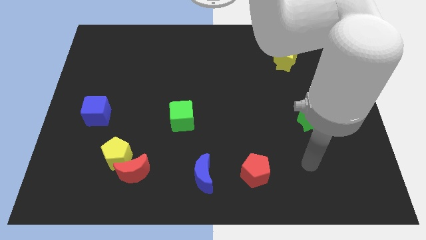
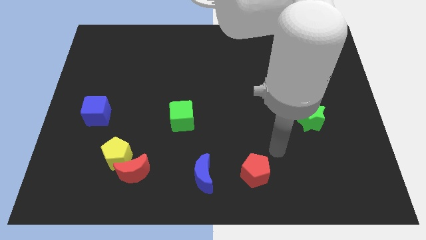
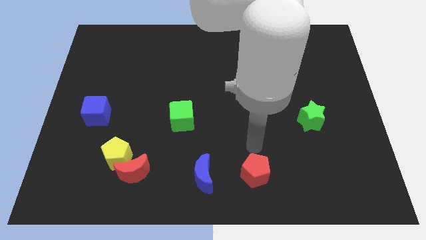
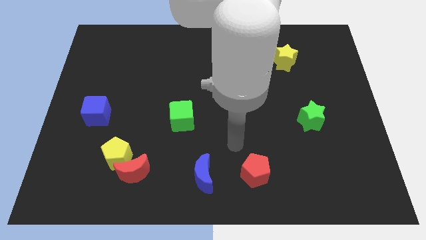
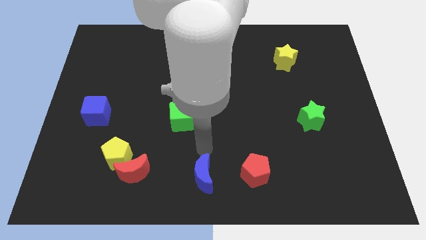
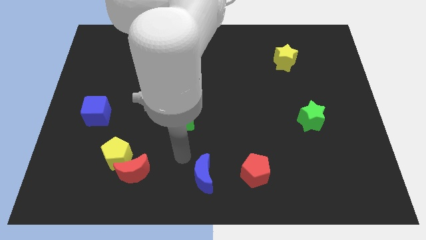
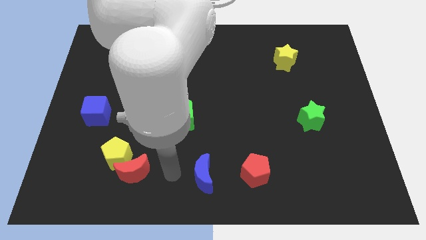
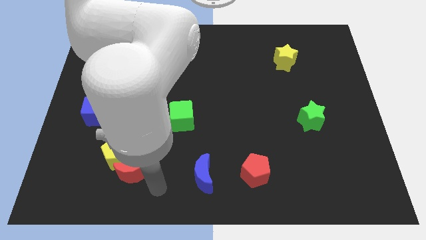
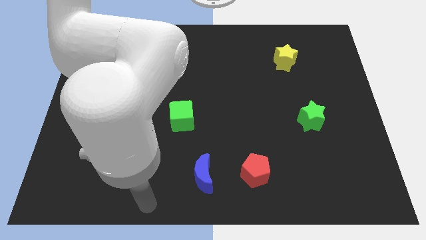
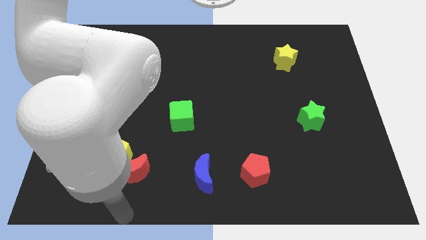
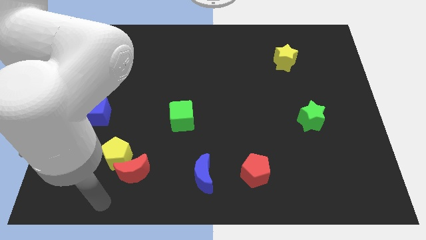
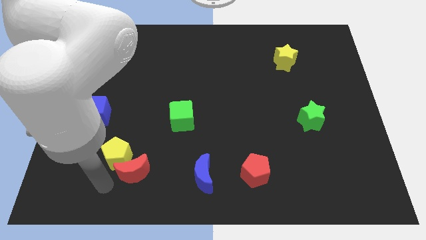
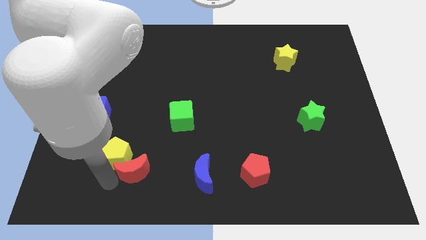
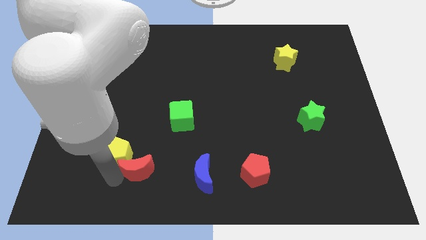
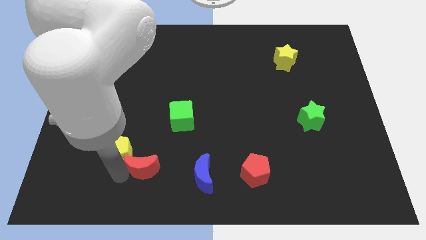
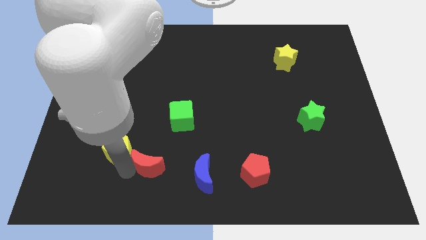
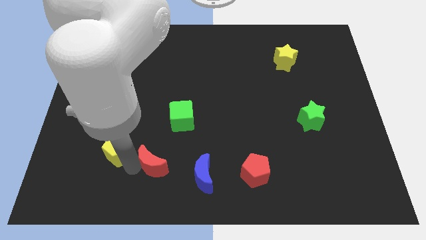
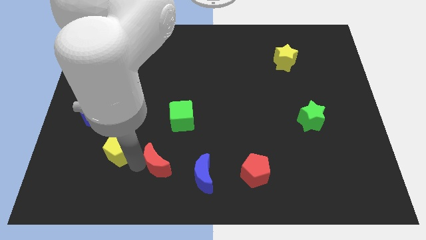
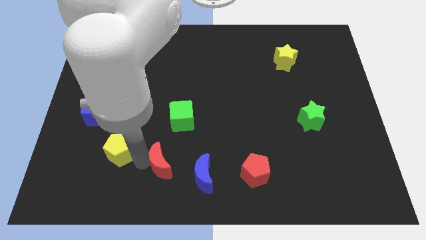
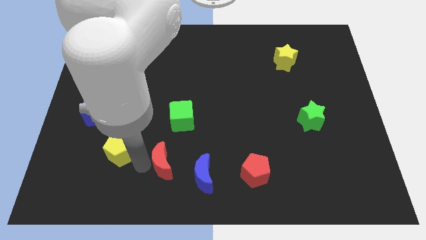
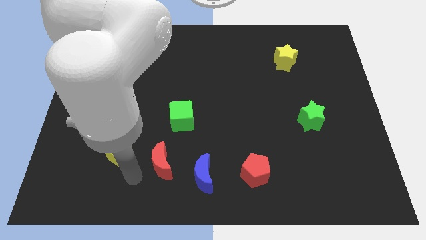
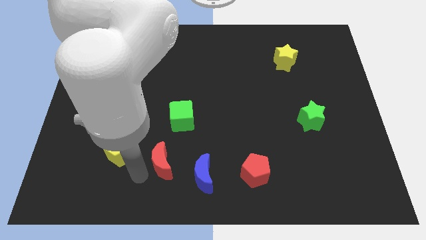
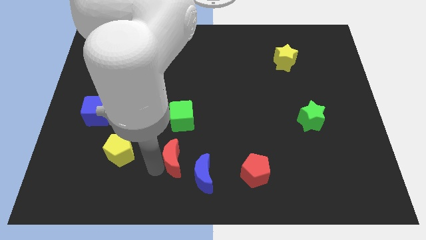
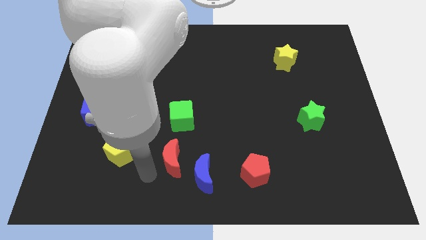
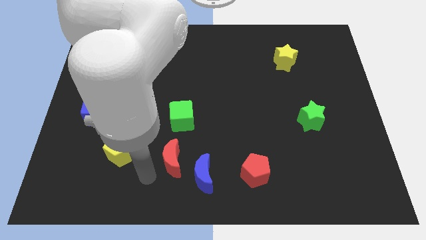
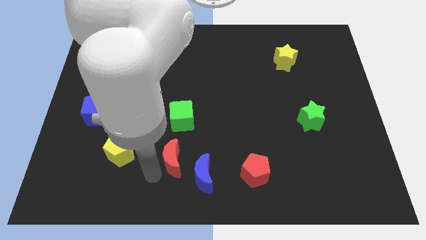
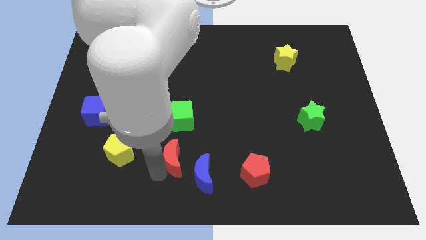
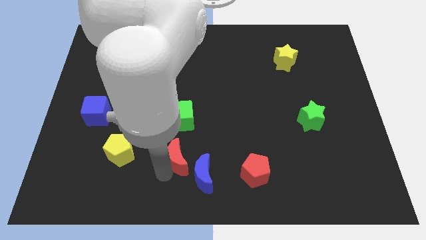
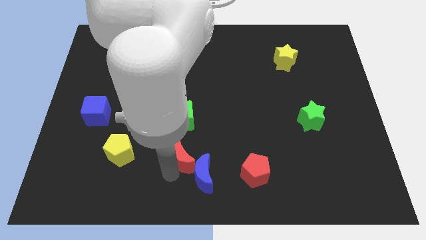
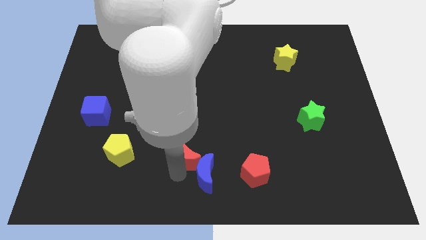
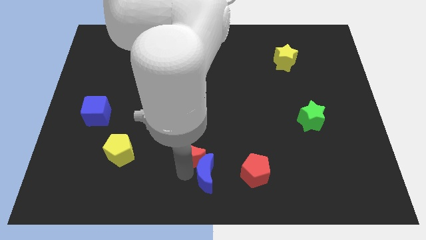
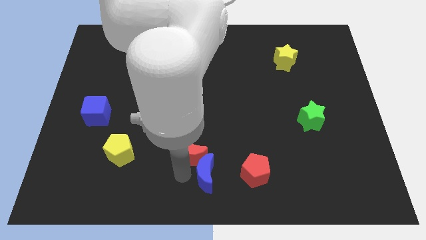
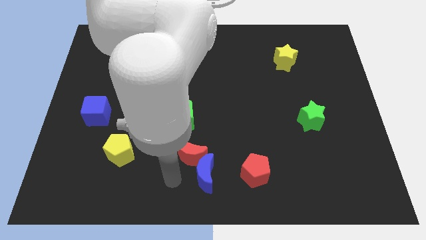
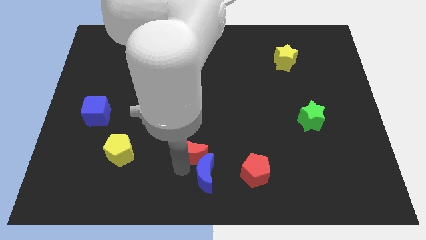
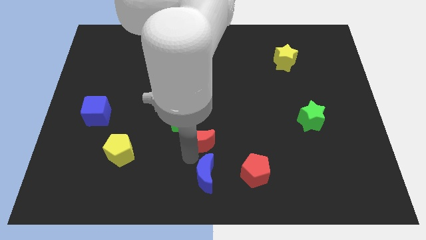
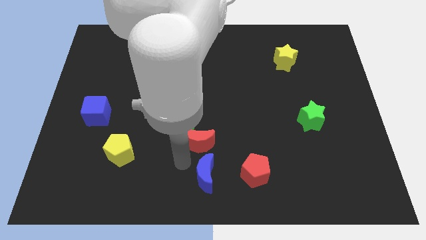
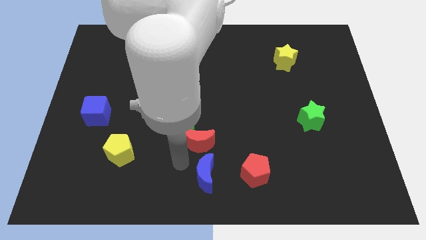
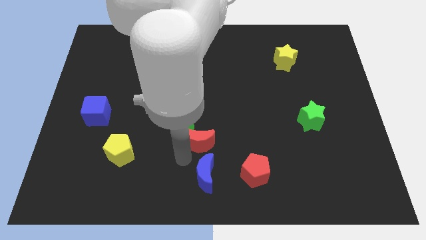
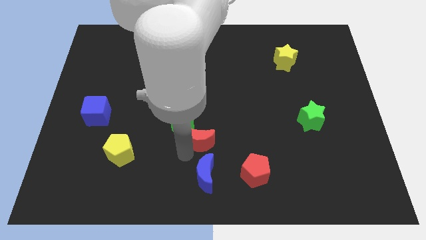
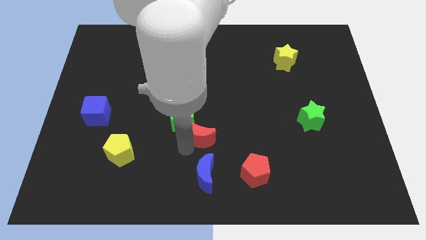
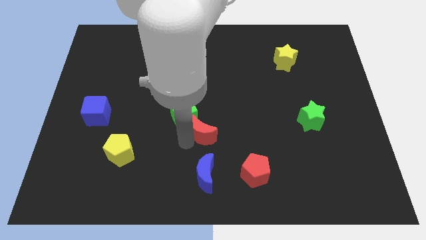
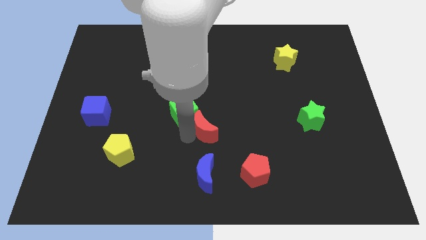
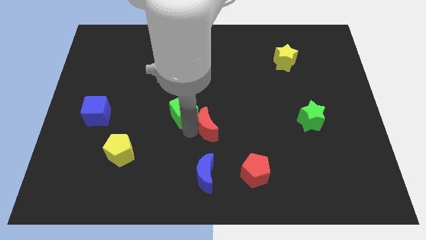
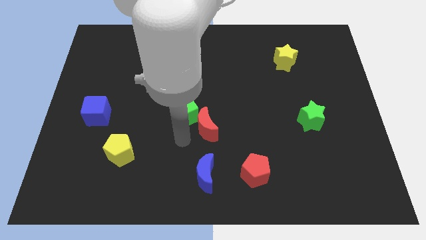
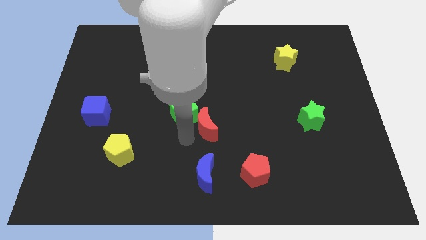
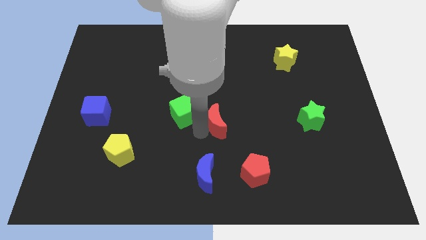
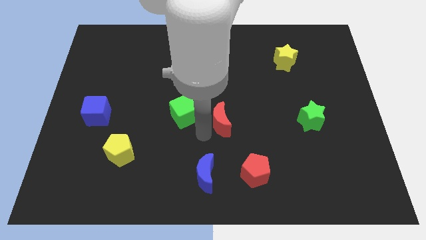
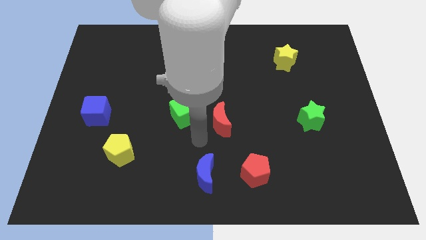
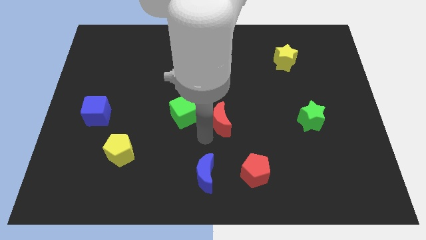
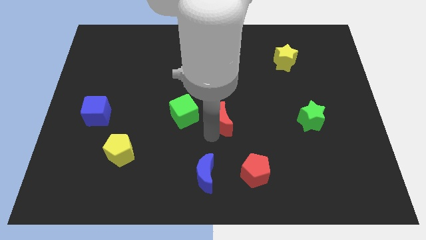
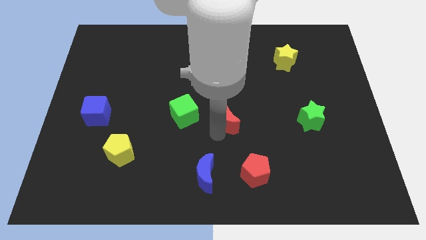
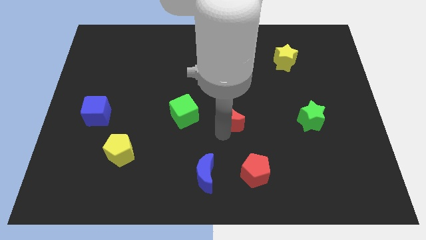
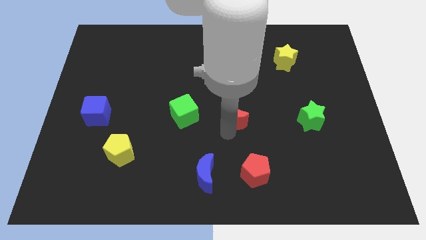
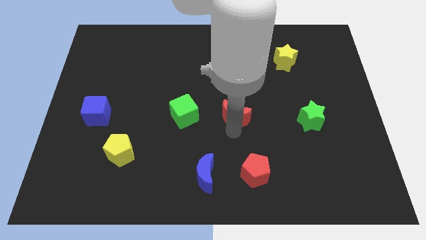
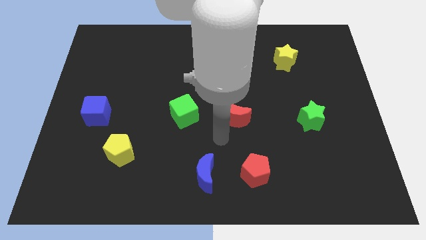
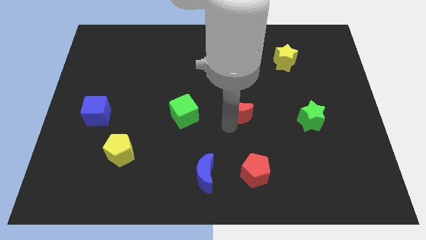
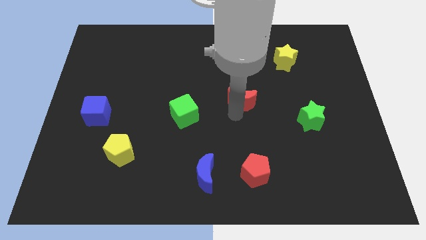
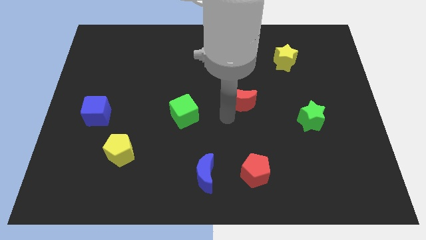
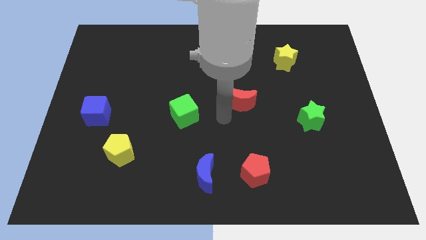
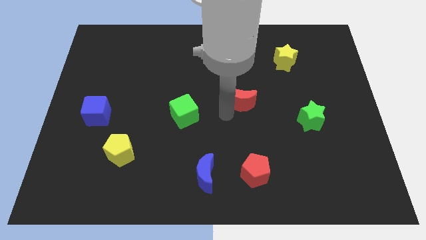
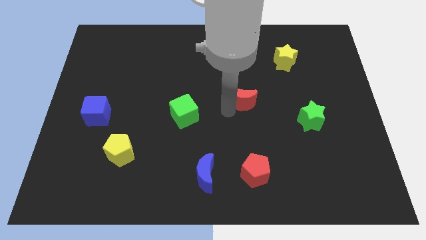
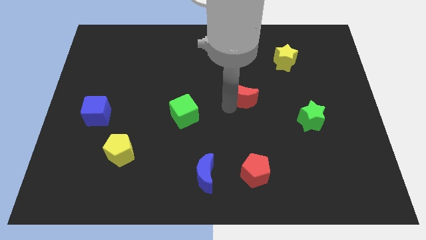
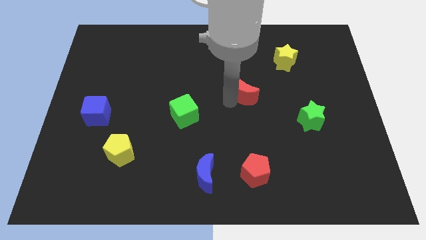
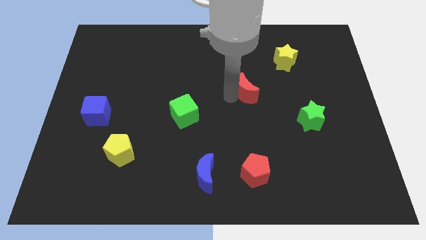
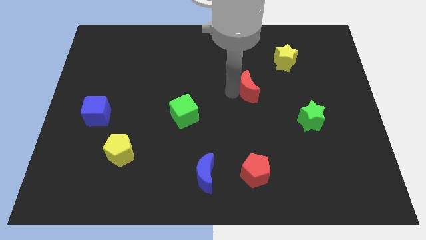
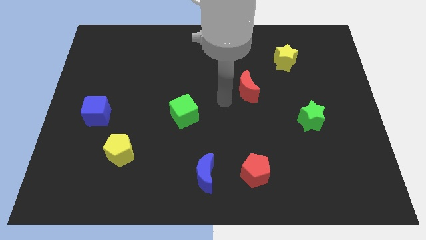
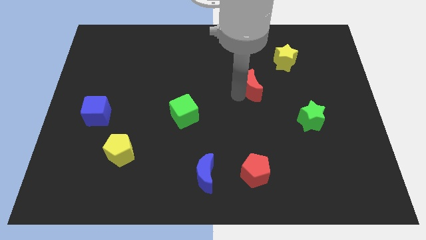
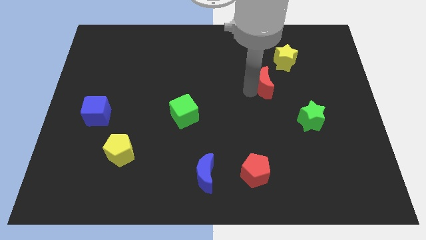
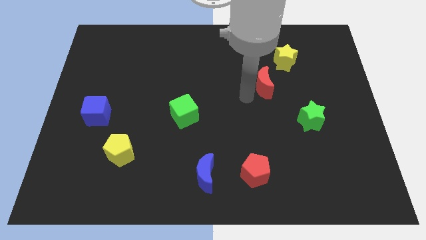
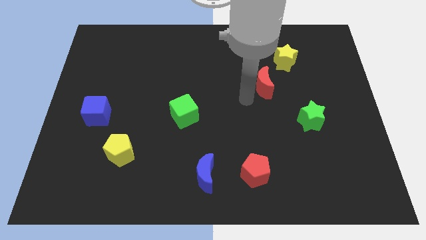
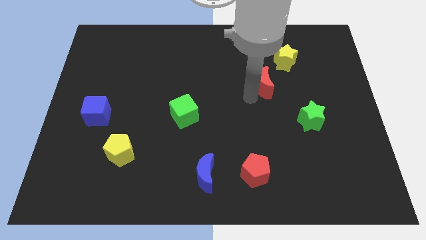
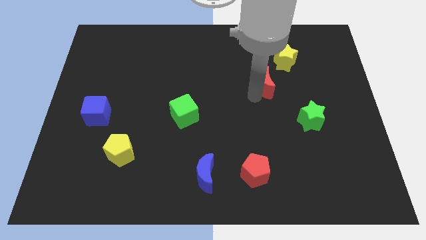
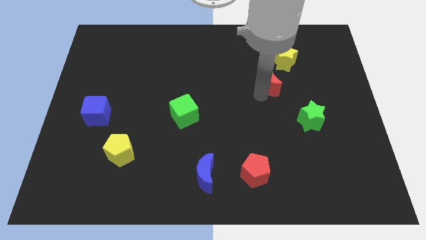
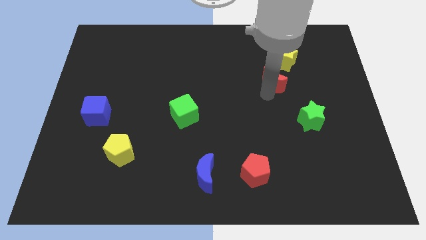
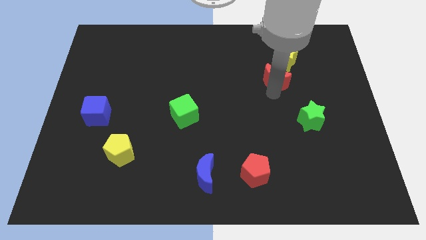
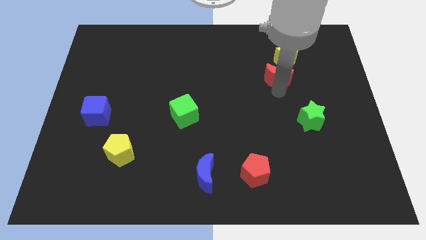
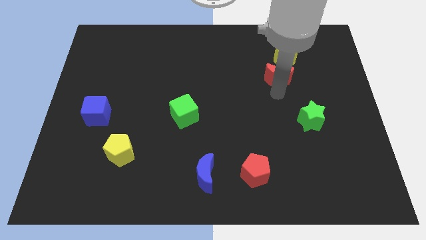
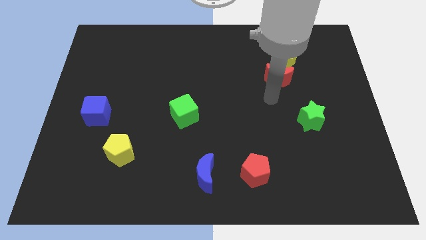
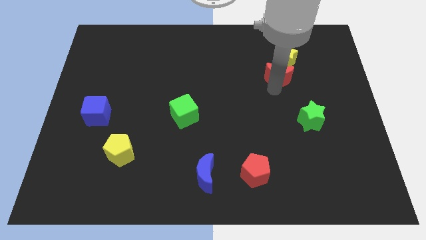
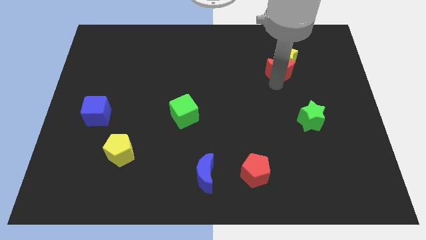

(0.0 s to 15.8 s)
push the red moon next to the yellow star
